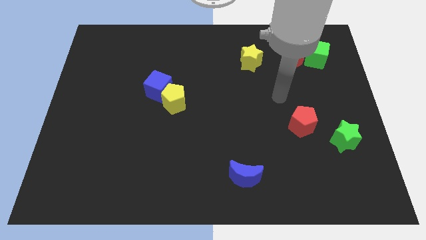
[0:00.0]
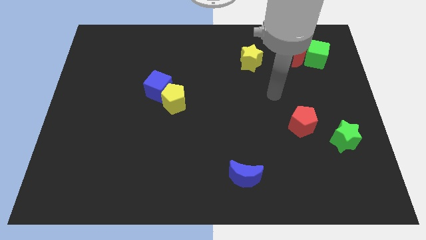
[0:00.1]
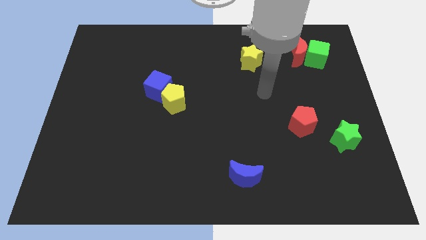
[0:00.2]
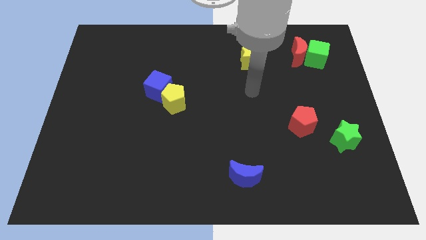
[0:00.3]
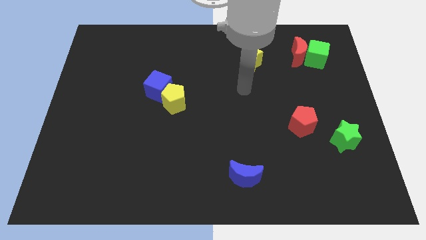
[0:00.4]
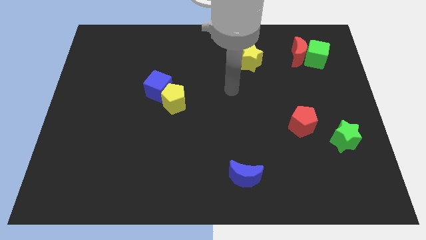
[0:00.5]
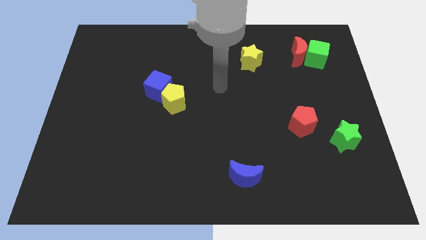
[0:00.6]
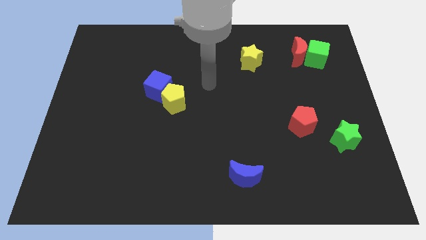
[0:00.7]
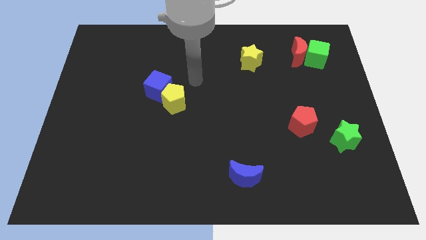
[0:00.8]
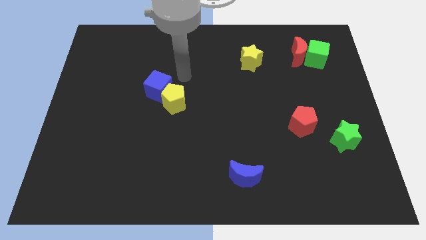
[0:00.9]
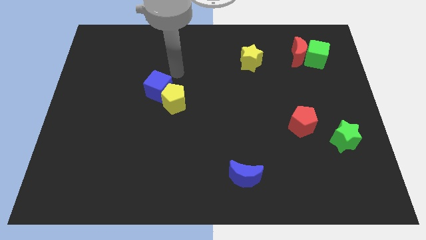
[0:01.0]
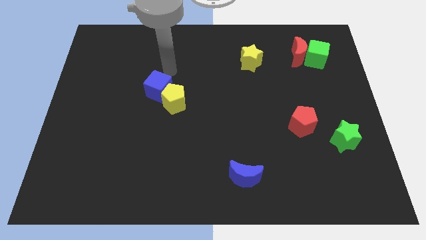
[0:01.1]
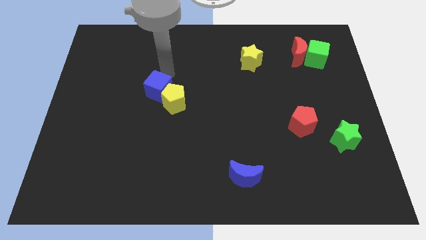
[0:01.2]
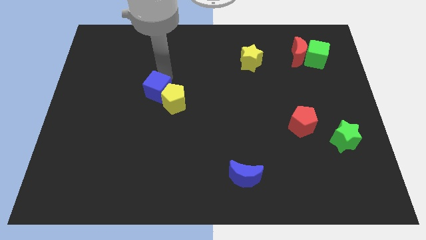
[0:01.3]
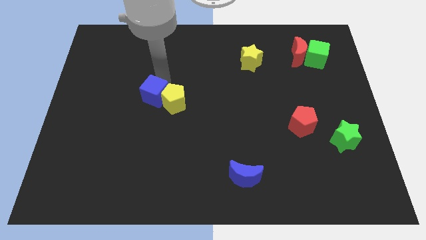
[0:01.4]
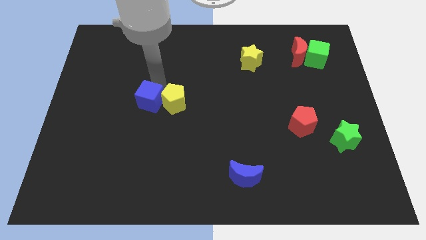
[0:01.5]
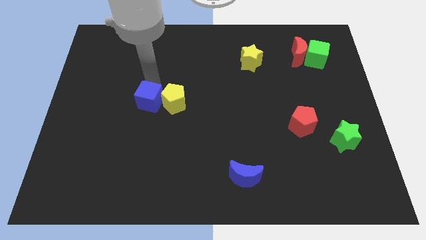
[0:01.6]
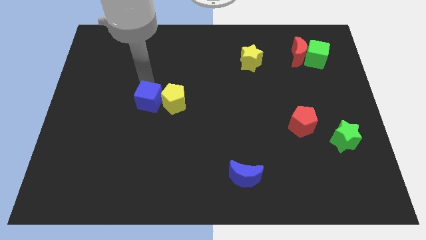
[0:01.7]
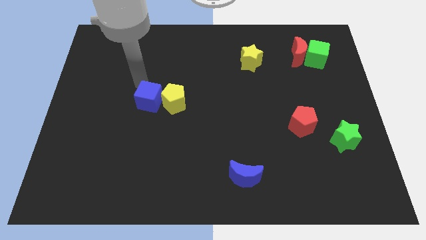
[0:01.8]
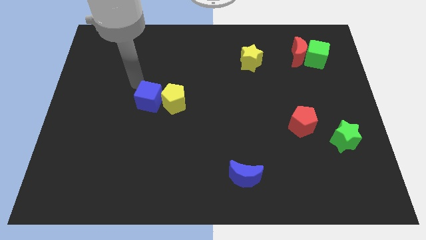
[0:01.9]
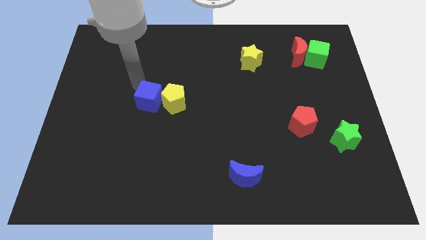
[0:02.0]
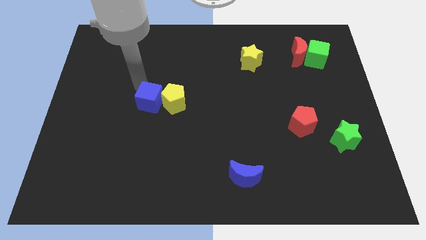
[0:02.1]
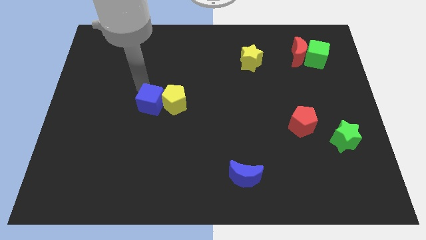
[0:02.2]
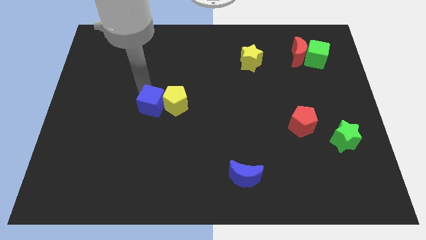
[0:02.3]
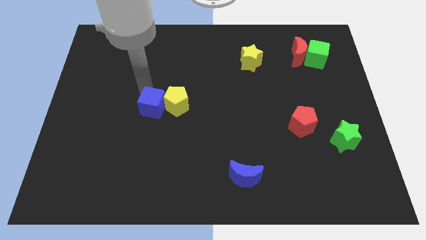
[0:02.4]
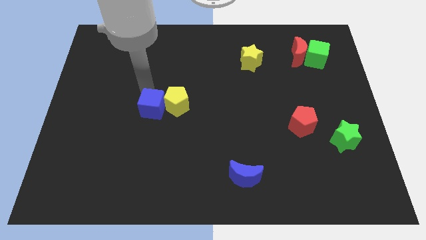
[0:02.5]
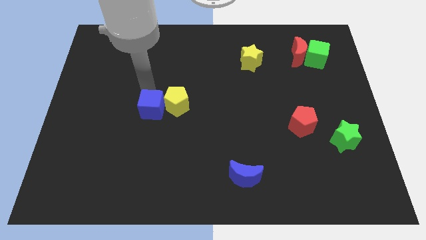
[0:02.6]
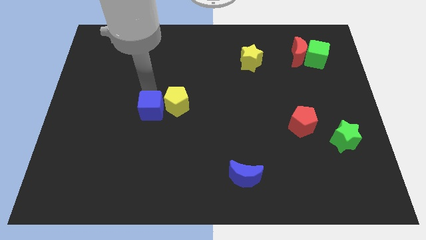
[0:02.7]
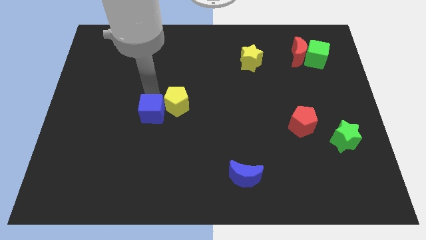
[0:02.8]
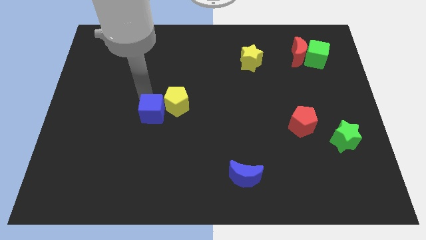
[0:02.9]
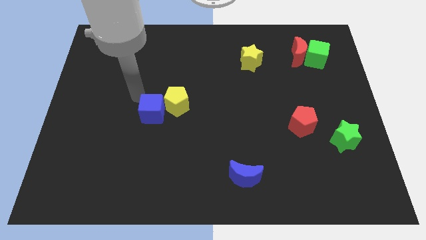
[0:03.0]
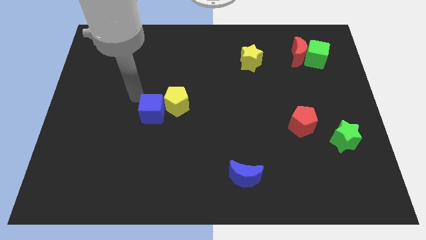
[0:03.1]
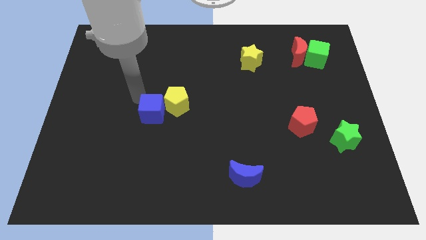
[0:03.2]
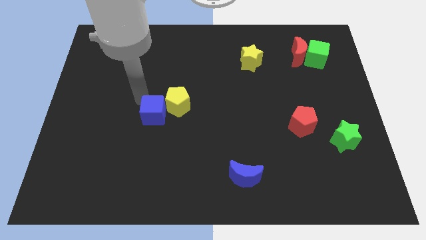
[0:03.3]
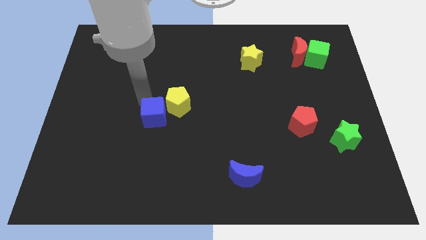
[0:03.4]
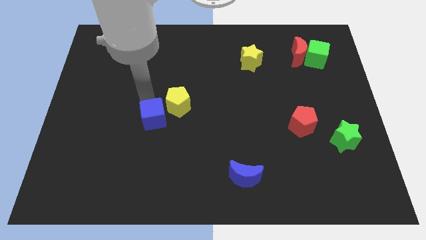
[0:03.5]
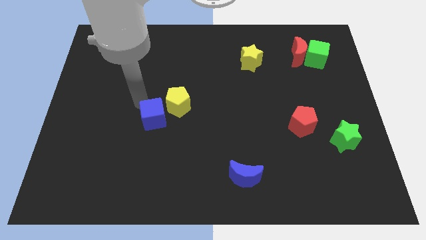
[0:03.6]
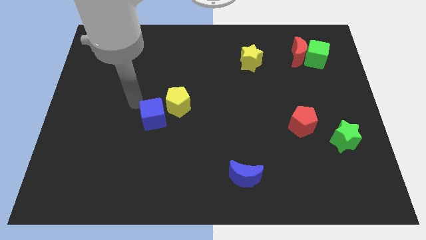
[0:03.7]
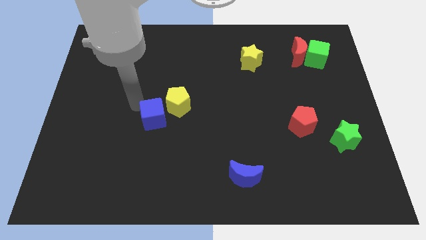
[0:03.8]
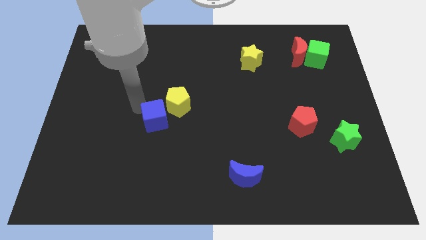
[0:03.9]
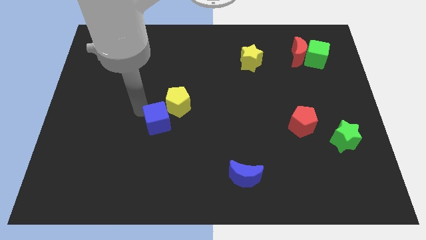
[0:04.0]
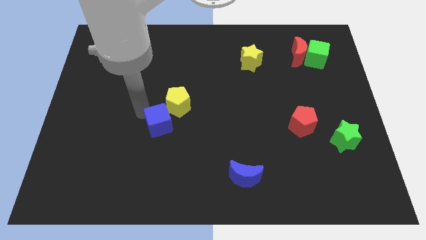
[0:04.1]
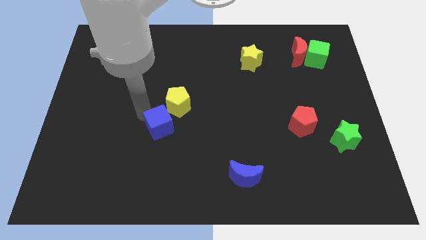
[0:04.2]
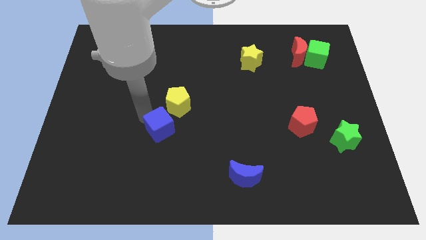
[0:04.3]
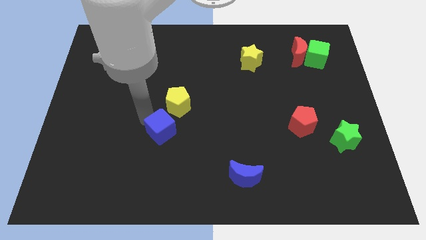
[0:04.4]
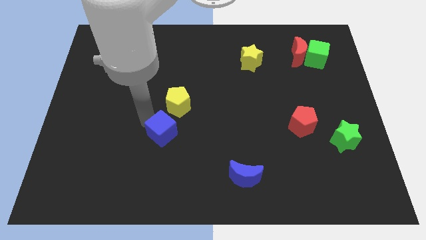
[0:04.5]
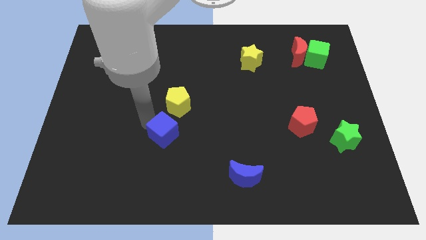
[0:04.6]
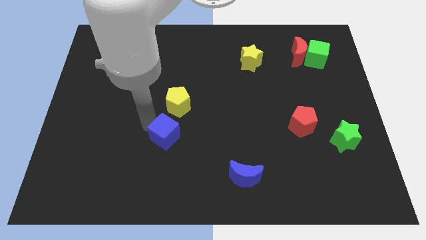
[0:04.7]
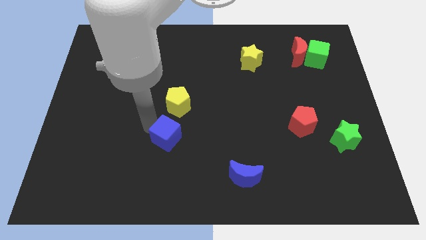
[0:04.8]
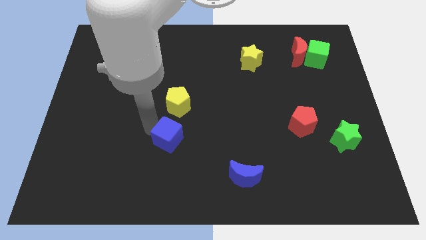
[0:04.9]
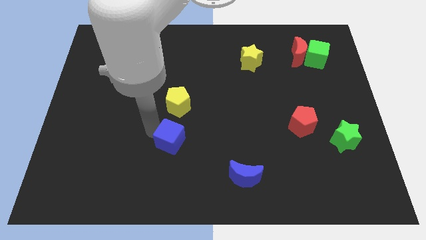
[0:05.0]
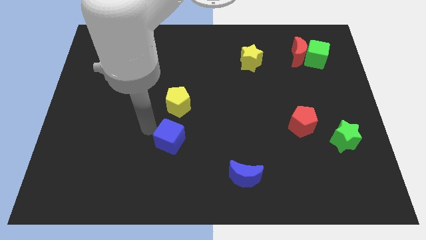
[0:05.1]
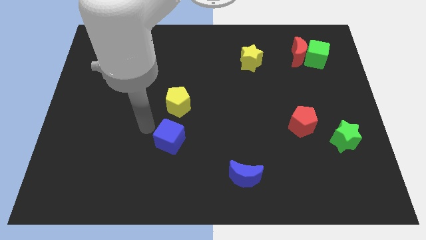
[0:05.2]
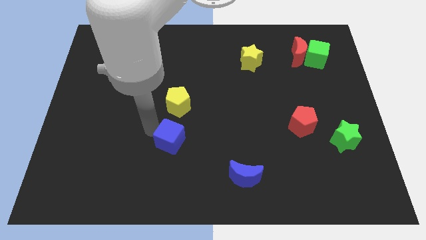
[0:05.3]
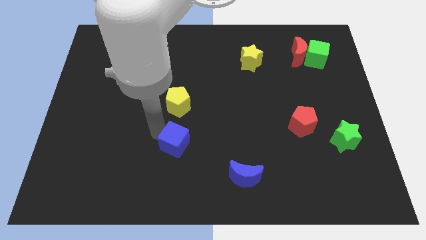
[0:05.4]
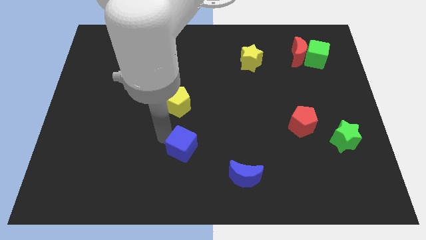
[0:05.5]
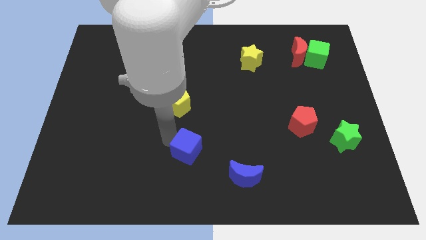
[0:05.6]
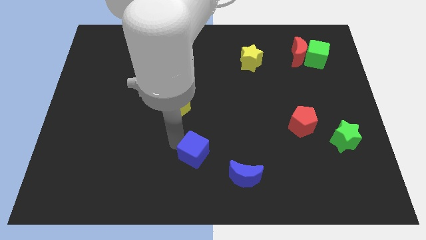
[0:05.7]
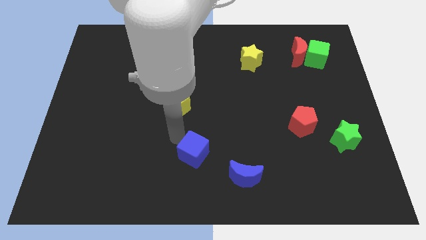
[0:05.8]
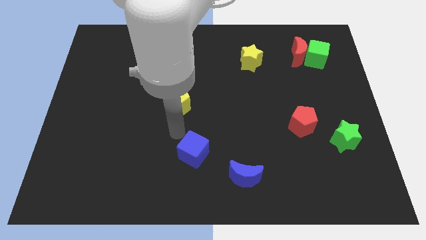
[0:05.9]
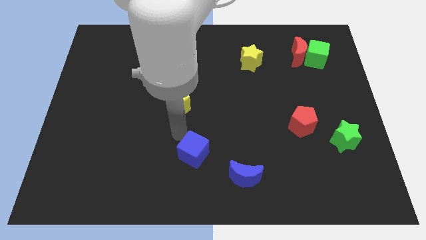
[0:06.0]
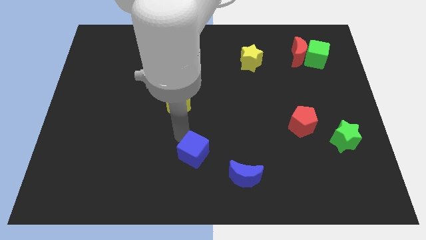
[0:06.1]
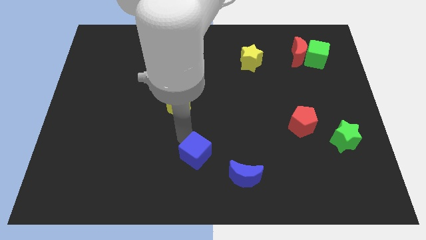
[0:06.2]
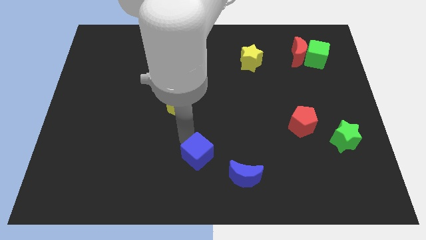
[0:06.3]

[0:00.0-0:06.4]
push the blue cube to the bottom
